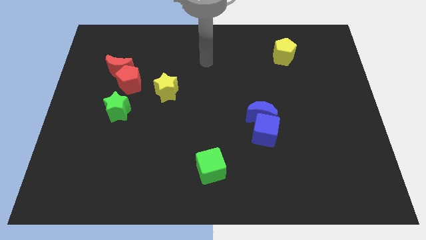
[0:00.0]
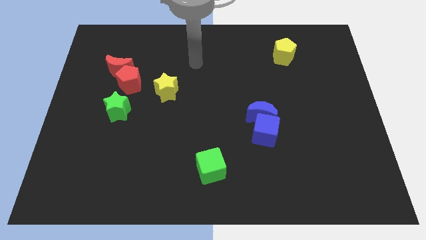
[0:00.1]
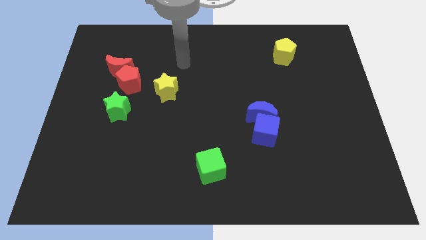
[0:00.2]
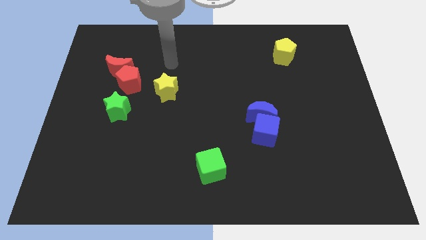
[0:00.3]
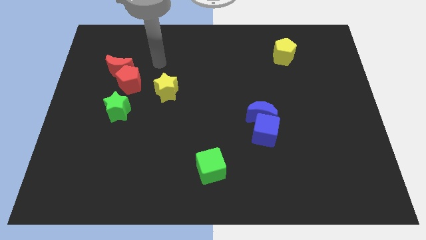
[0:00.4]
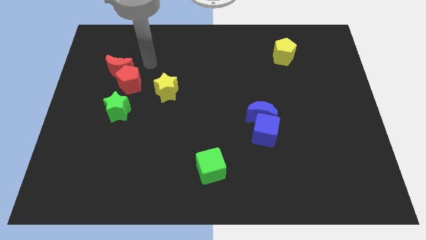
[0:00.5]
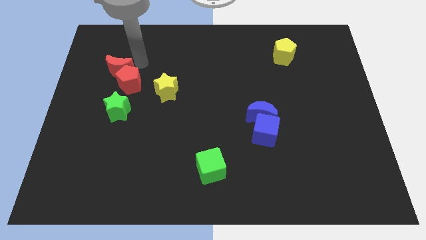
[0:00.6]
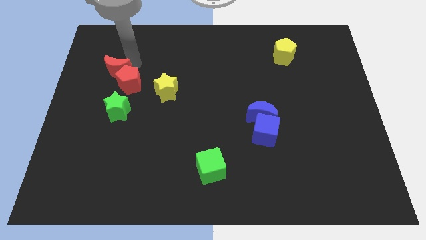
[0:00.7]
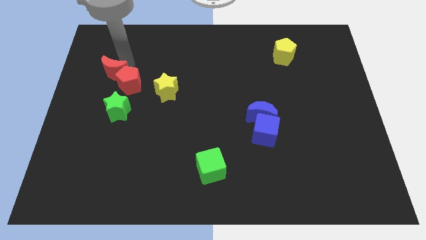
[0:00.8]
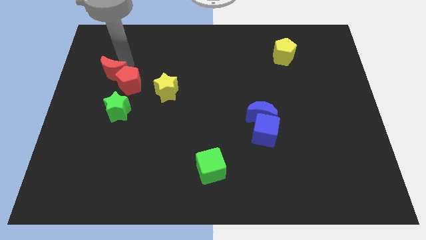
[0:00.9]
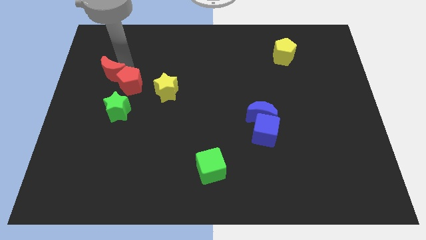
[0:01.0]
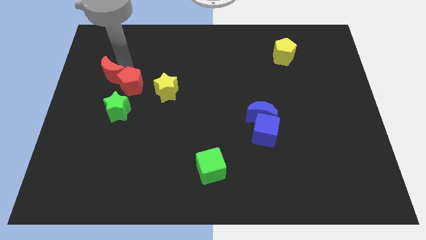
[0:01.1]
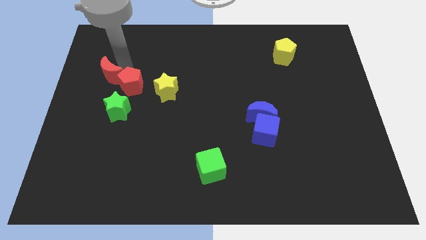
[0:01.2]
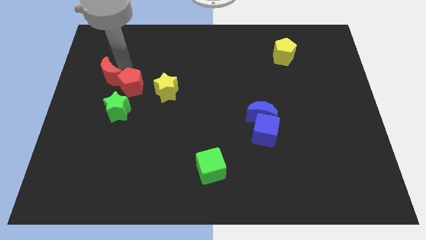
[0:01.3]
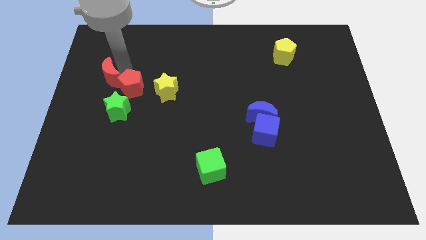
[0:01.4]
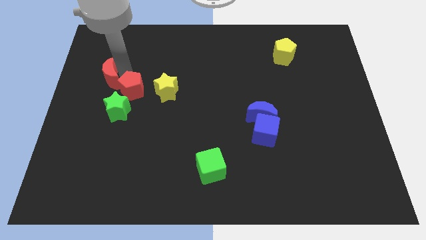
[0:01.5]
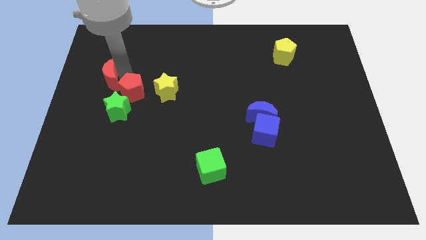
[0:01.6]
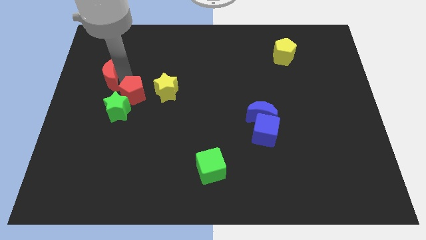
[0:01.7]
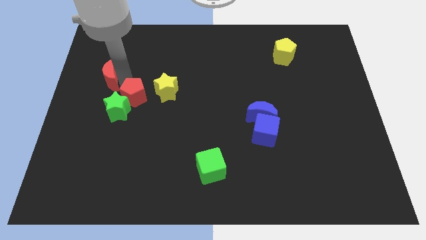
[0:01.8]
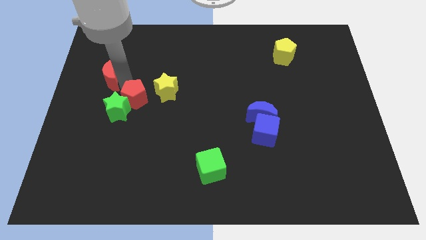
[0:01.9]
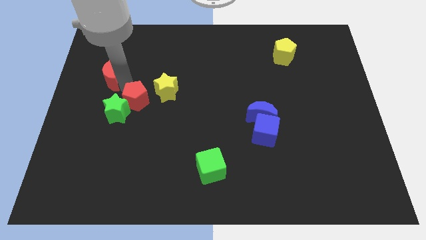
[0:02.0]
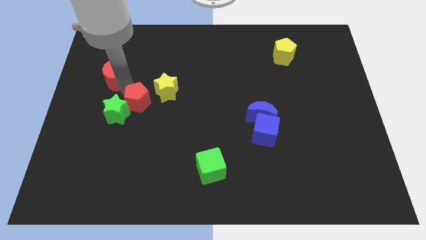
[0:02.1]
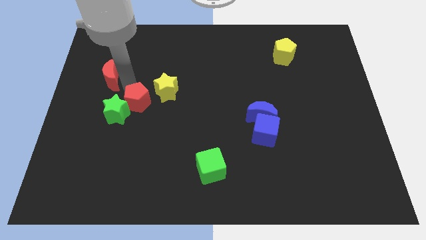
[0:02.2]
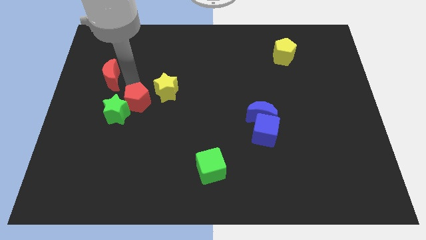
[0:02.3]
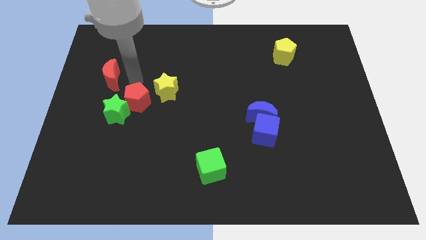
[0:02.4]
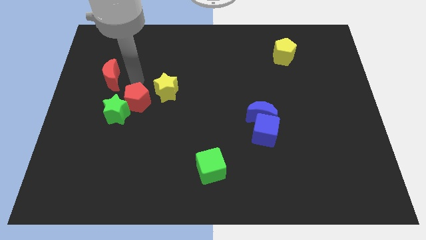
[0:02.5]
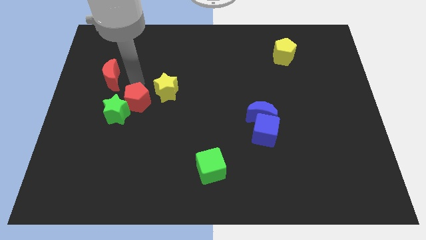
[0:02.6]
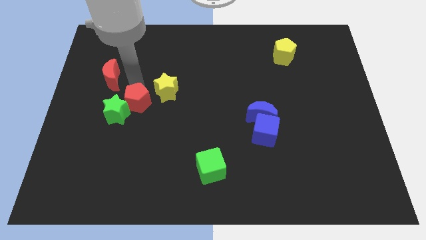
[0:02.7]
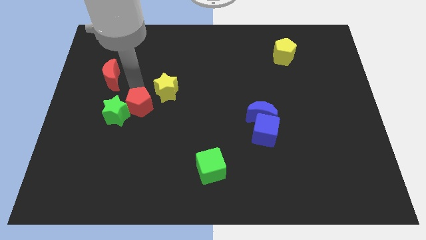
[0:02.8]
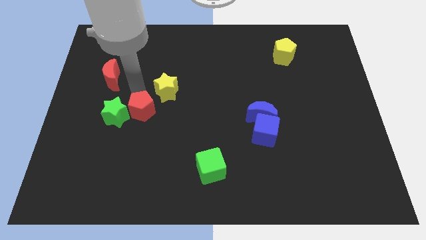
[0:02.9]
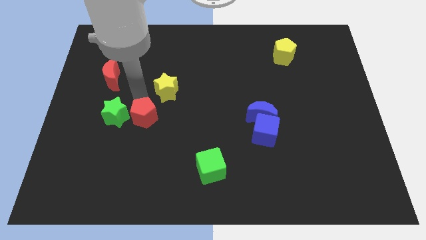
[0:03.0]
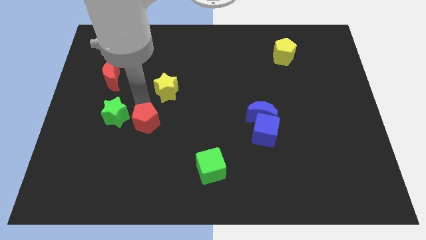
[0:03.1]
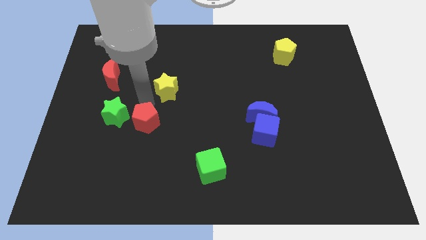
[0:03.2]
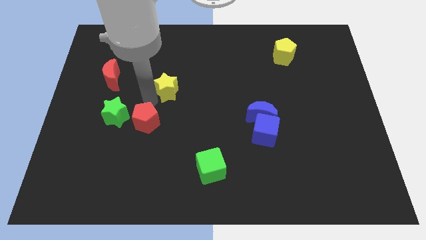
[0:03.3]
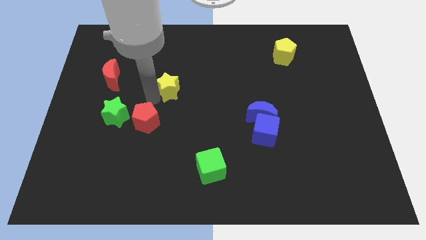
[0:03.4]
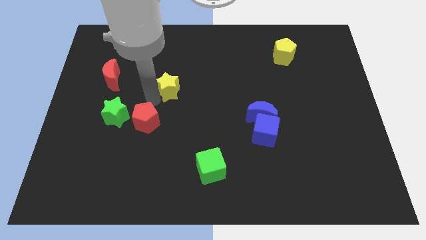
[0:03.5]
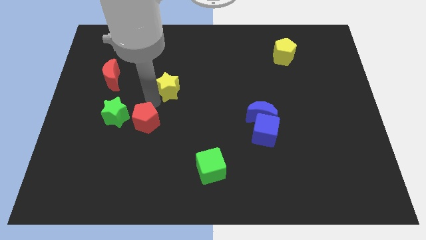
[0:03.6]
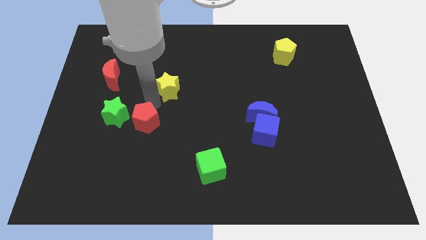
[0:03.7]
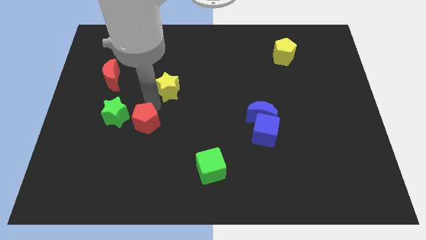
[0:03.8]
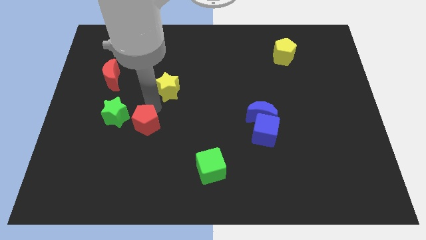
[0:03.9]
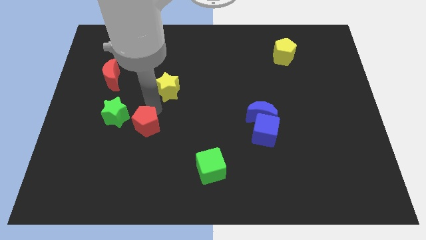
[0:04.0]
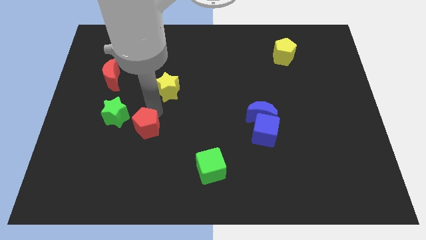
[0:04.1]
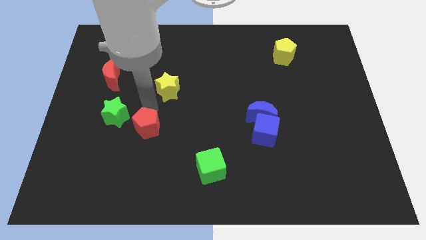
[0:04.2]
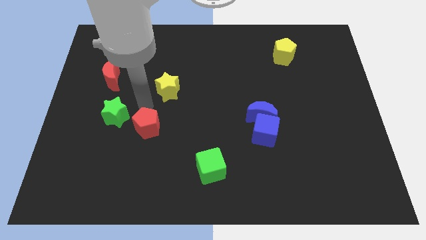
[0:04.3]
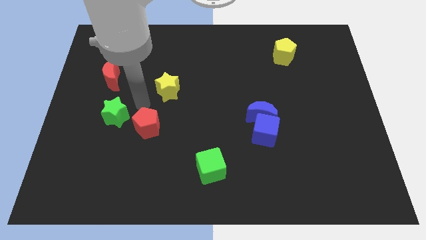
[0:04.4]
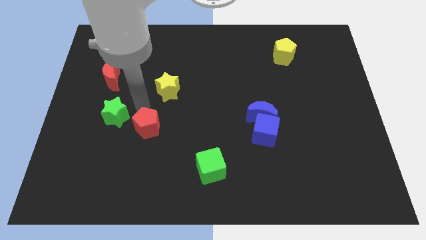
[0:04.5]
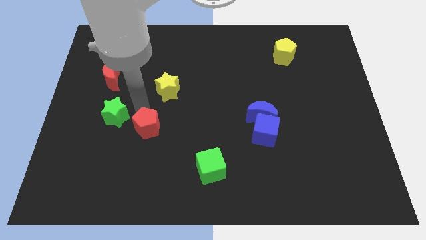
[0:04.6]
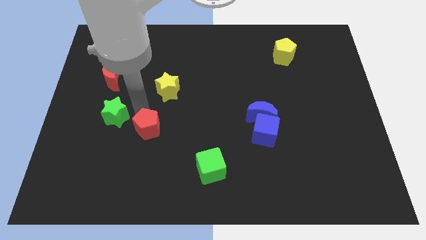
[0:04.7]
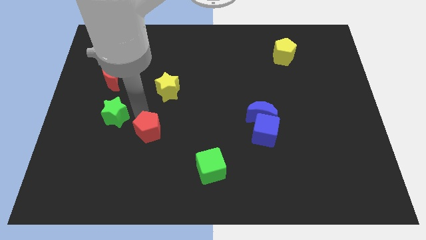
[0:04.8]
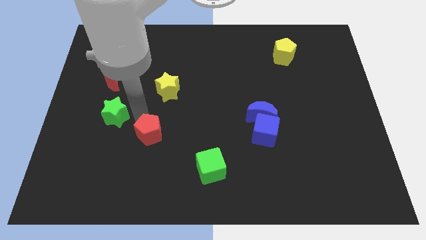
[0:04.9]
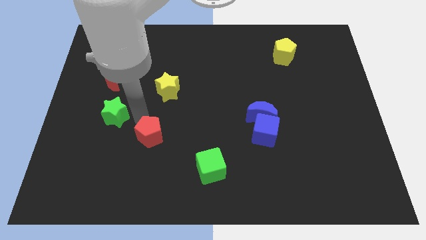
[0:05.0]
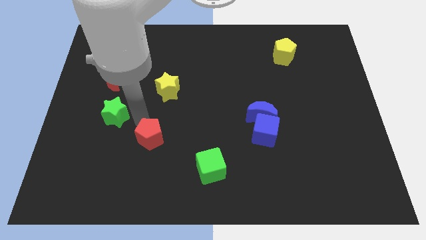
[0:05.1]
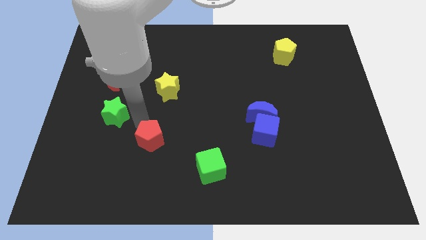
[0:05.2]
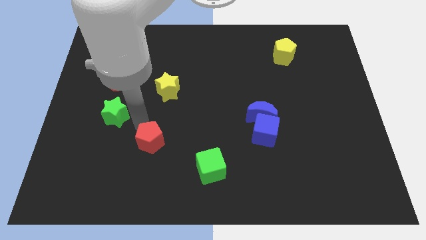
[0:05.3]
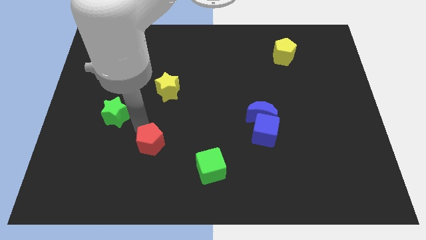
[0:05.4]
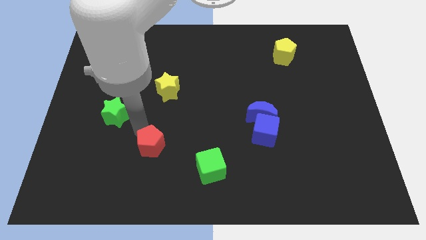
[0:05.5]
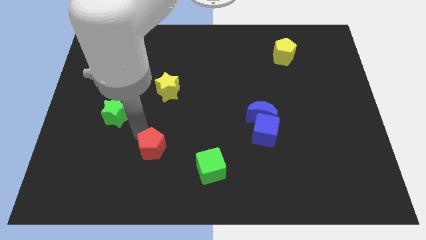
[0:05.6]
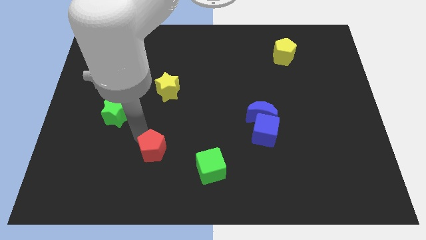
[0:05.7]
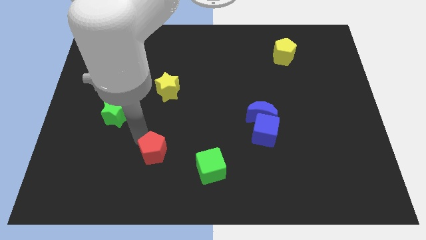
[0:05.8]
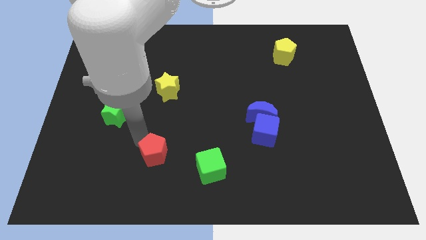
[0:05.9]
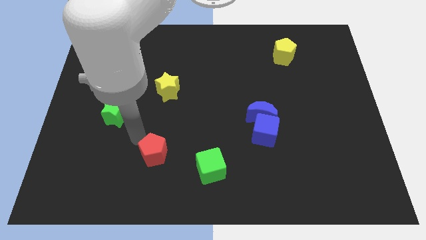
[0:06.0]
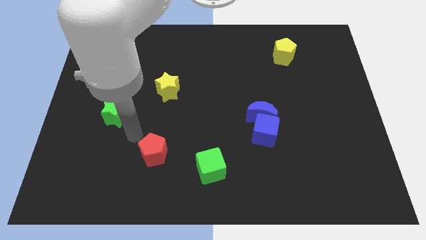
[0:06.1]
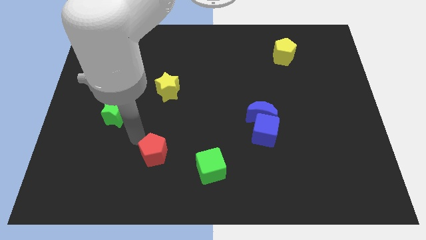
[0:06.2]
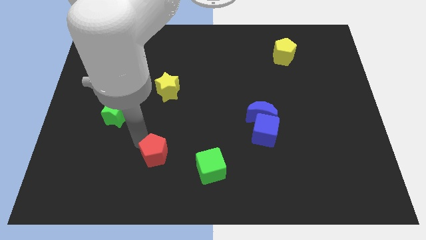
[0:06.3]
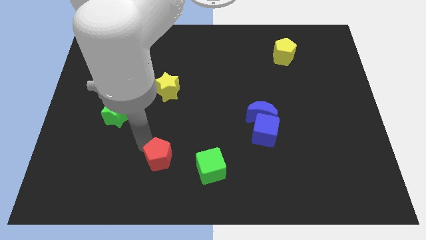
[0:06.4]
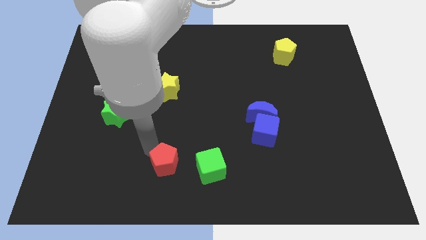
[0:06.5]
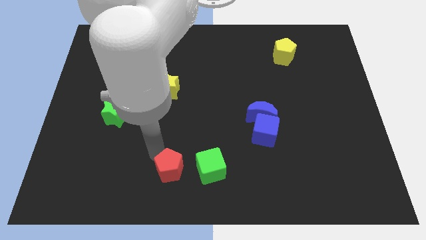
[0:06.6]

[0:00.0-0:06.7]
put the red pentagon to the bottom
